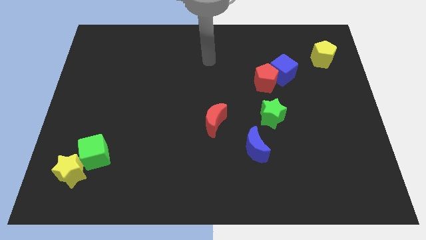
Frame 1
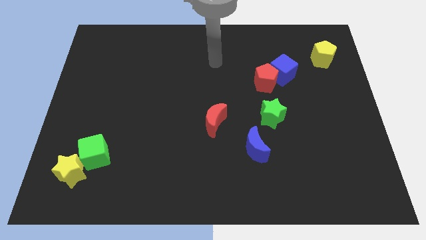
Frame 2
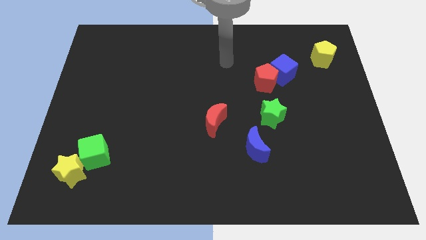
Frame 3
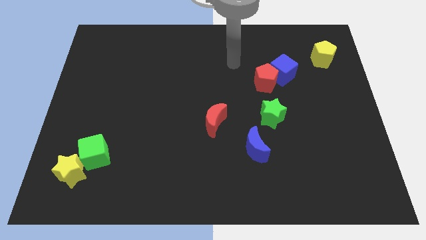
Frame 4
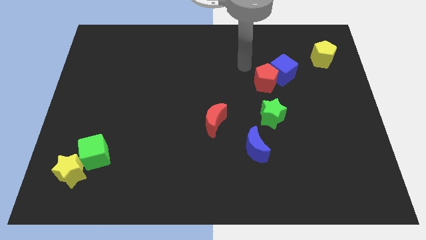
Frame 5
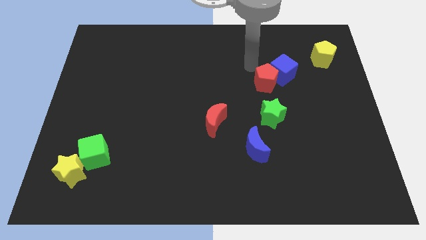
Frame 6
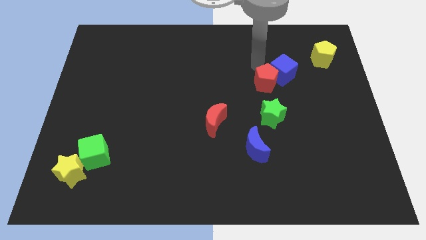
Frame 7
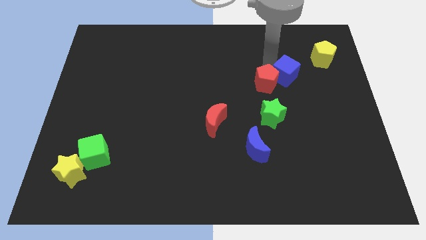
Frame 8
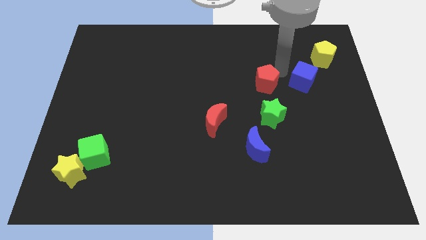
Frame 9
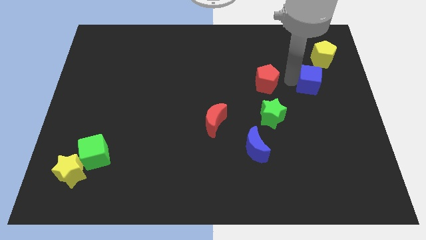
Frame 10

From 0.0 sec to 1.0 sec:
pull the red pentagon apart from the blue cube

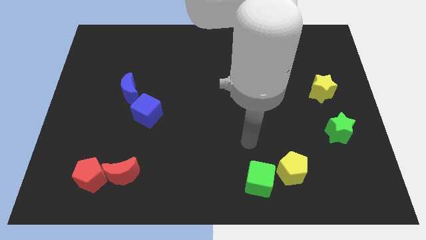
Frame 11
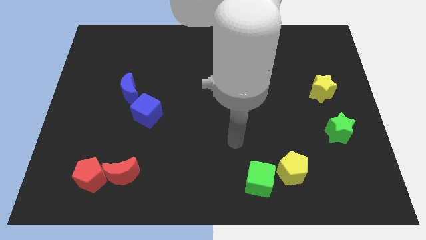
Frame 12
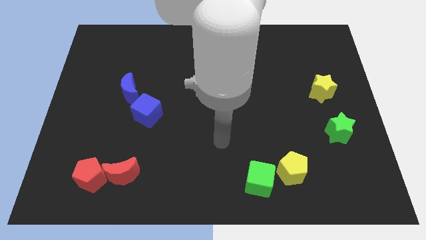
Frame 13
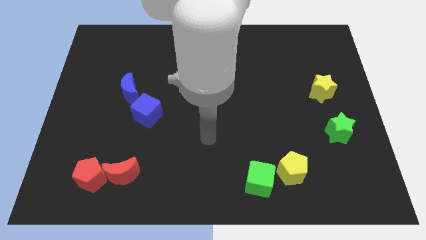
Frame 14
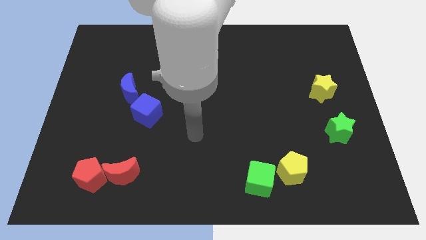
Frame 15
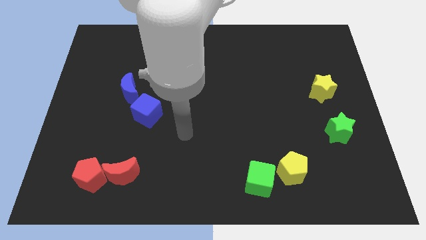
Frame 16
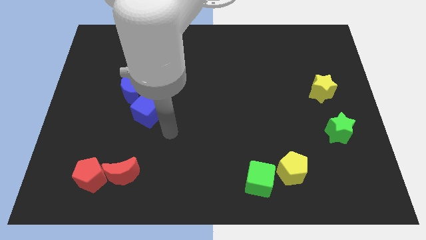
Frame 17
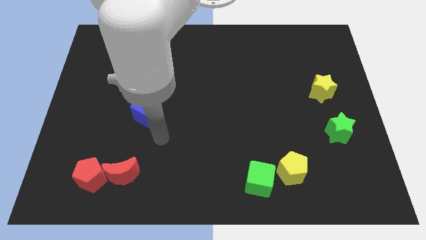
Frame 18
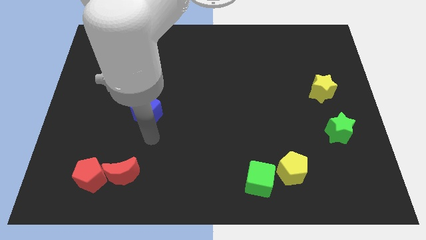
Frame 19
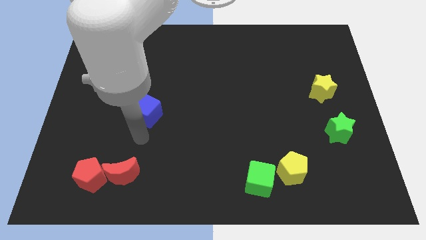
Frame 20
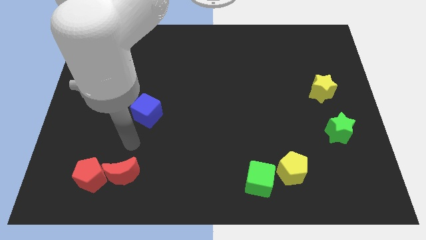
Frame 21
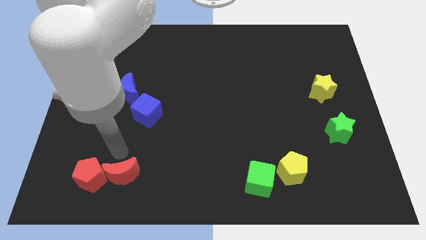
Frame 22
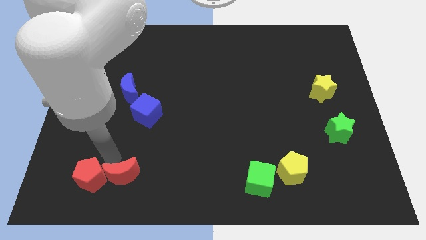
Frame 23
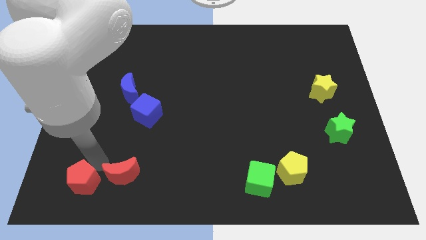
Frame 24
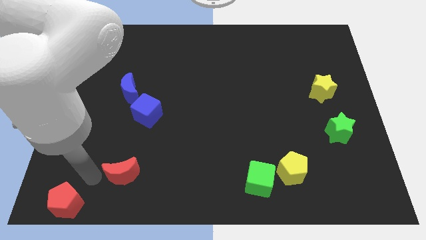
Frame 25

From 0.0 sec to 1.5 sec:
pull the red moon apart from the red pentagon

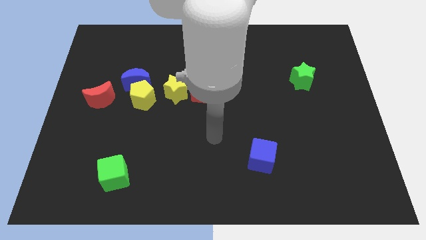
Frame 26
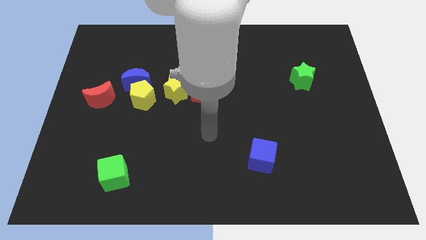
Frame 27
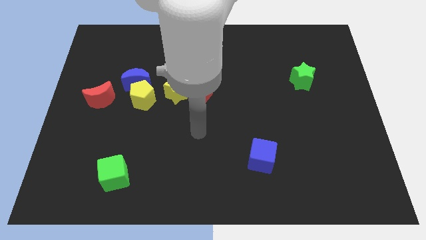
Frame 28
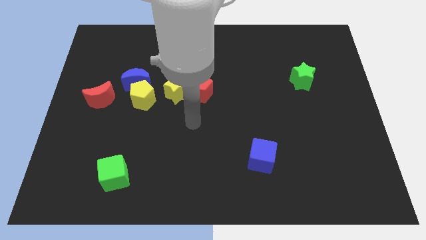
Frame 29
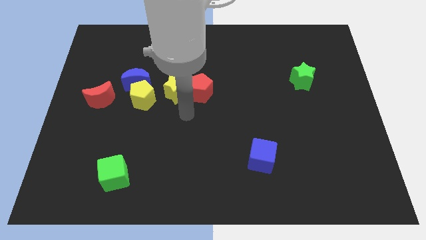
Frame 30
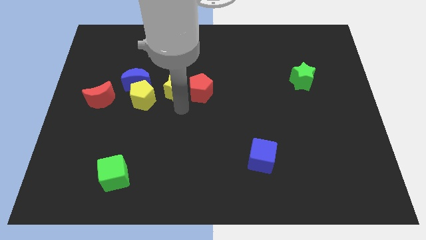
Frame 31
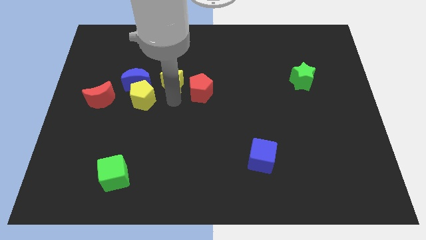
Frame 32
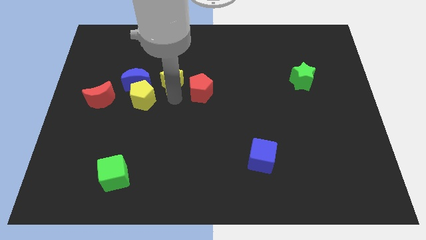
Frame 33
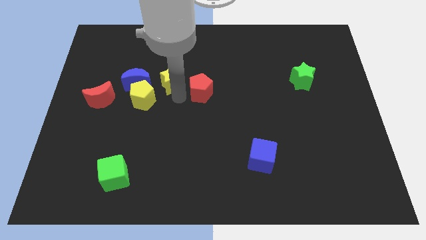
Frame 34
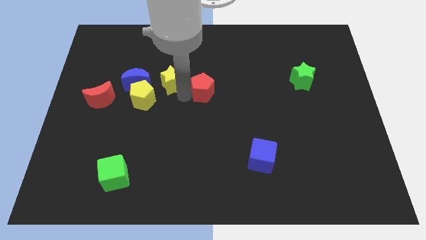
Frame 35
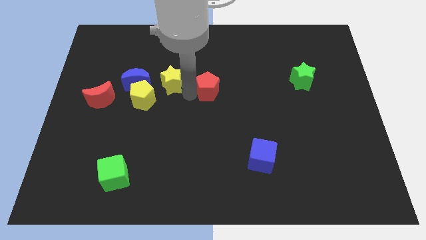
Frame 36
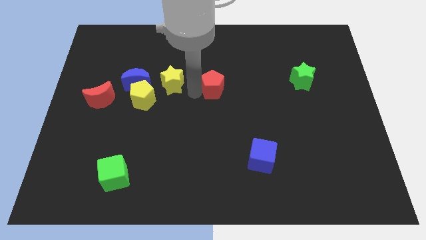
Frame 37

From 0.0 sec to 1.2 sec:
pull the red pentagon apart from the yellow star

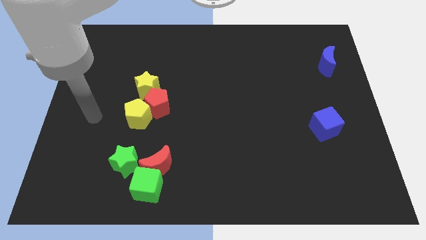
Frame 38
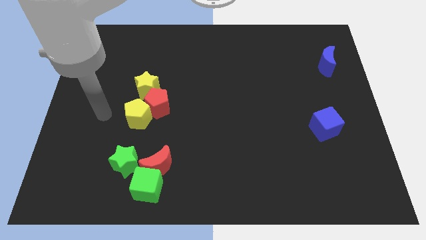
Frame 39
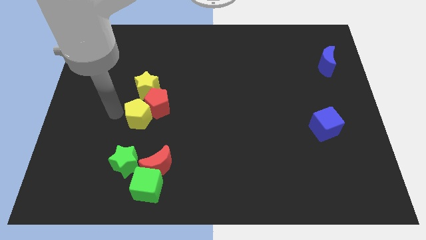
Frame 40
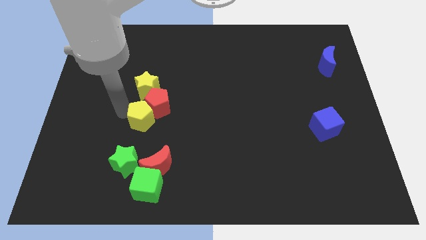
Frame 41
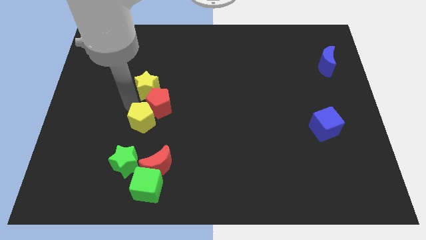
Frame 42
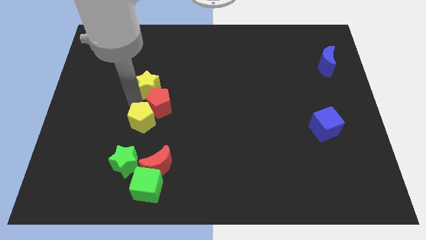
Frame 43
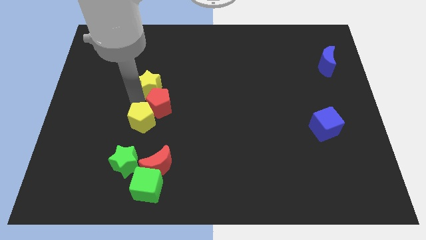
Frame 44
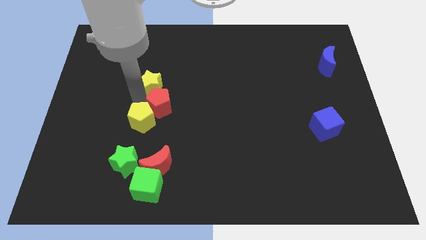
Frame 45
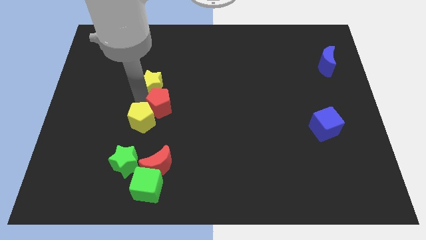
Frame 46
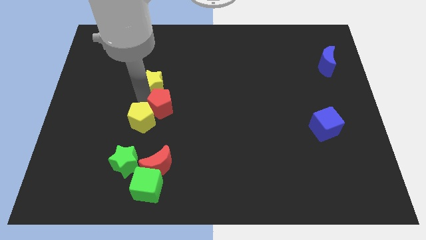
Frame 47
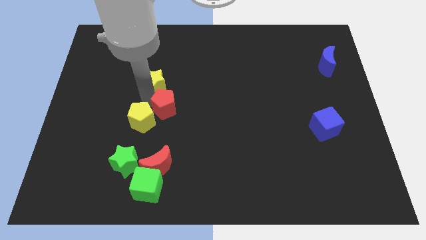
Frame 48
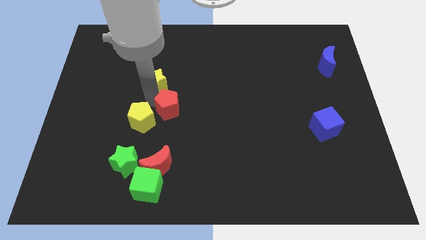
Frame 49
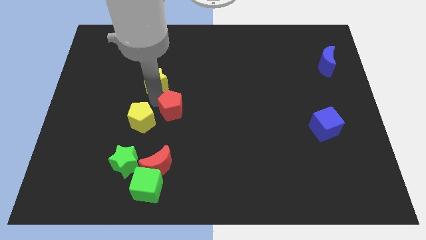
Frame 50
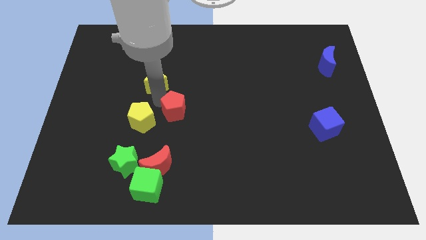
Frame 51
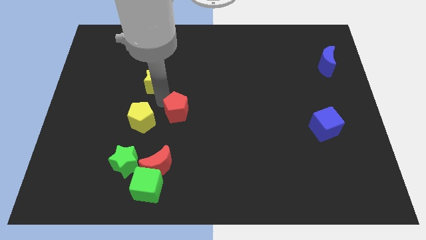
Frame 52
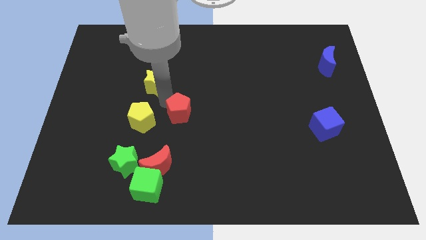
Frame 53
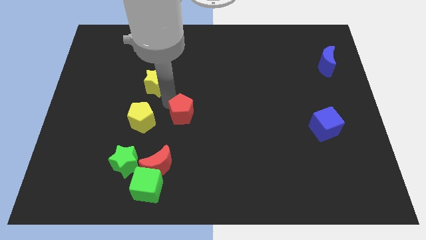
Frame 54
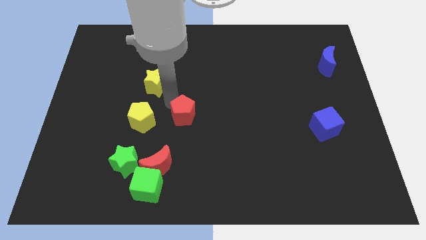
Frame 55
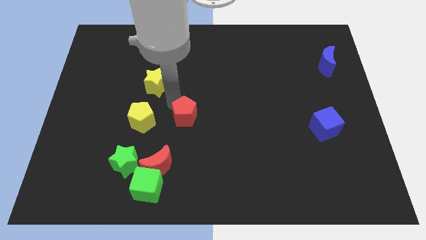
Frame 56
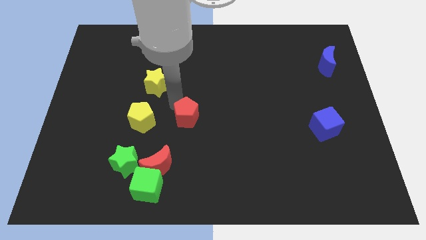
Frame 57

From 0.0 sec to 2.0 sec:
separate the red pentagon from the yellow pentagon and yellow star

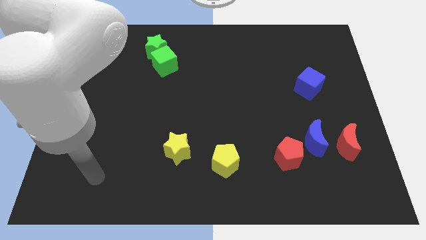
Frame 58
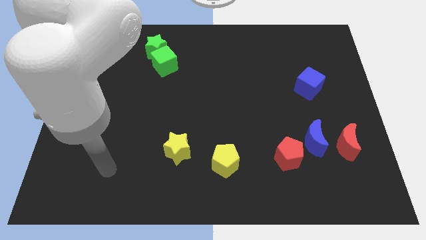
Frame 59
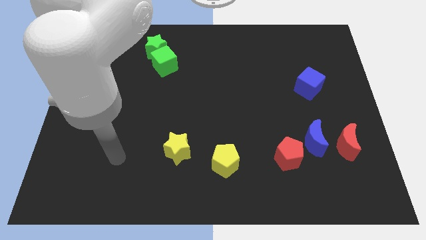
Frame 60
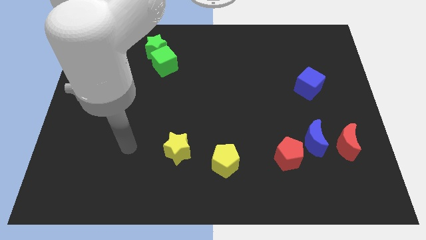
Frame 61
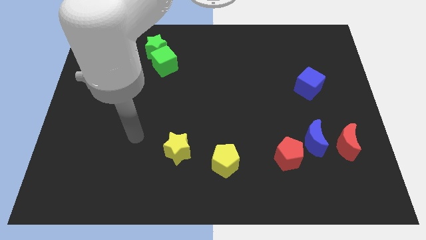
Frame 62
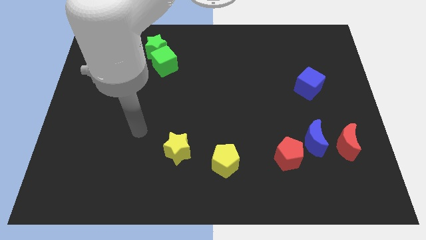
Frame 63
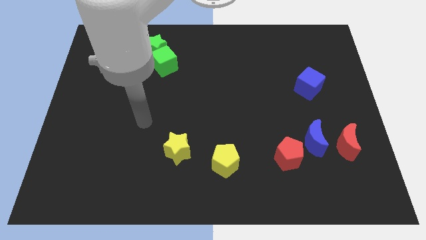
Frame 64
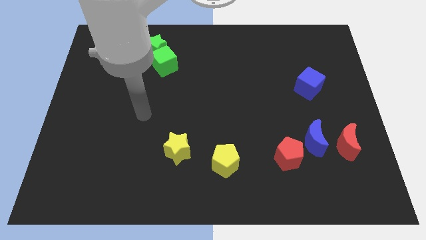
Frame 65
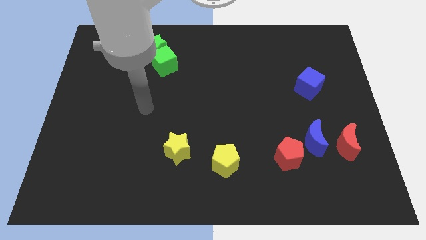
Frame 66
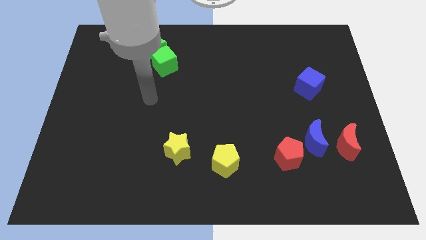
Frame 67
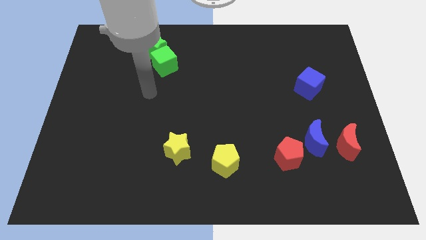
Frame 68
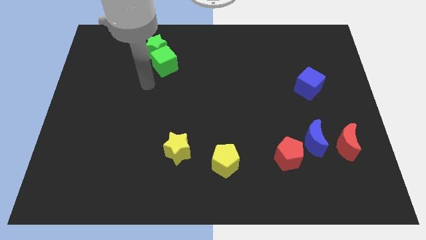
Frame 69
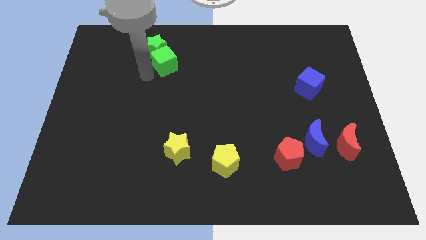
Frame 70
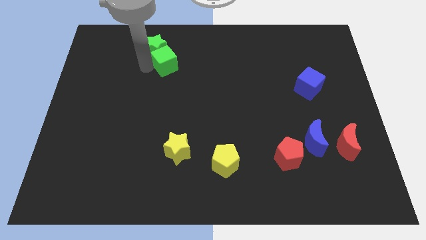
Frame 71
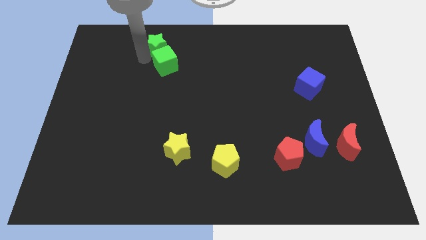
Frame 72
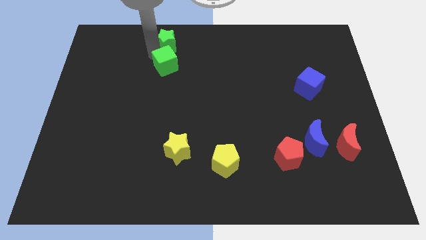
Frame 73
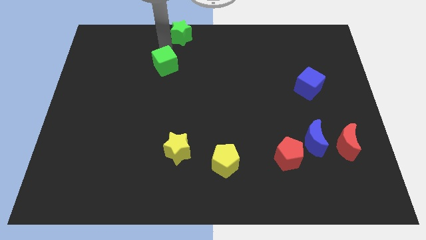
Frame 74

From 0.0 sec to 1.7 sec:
pull the green cube apart from the green star

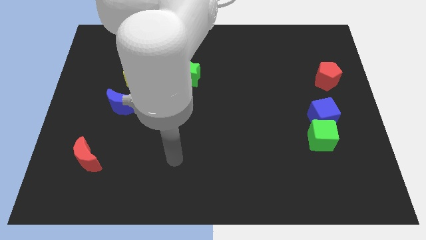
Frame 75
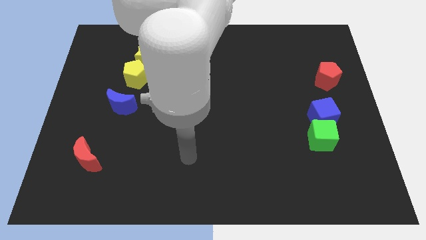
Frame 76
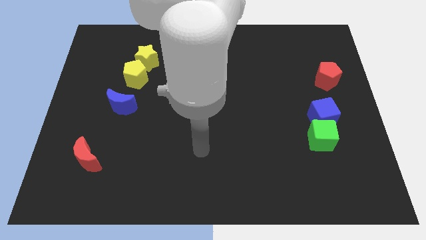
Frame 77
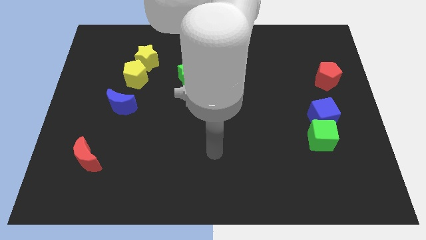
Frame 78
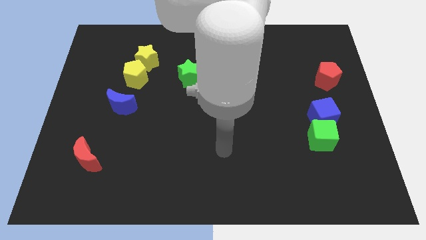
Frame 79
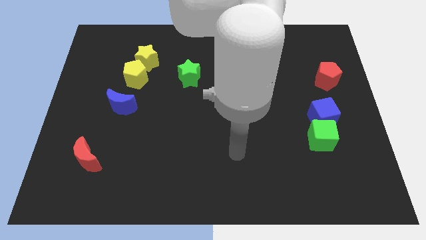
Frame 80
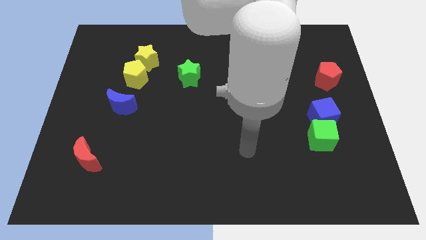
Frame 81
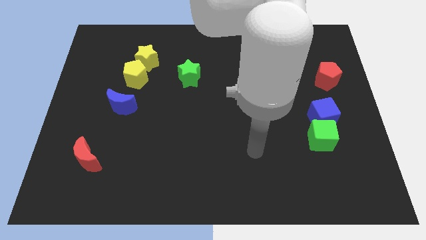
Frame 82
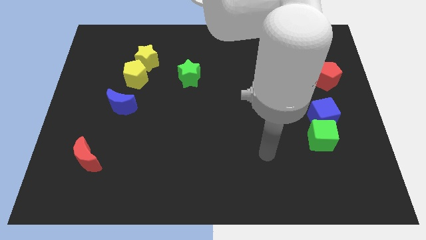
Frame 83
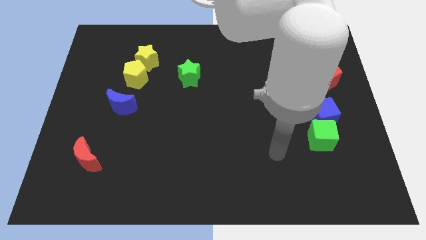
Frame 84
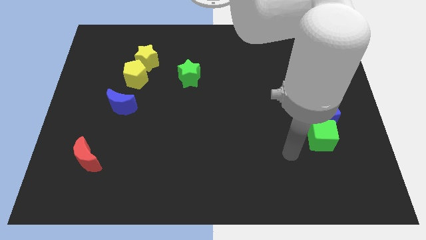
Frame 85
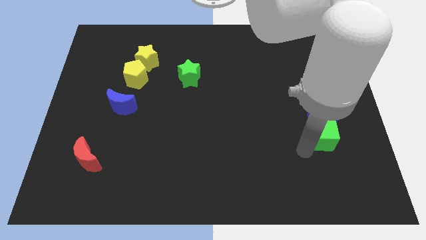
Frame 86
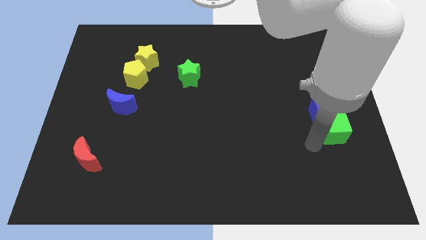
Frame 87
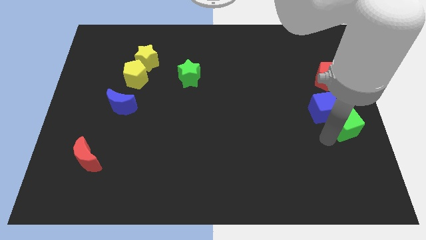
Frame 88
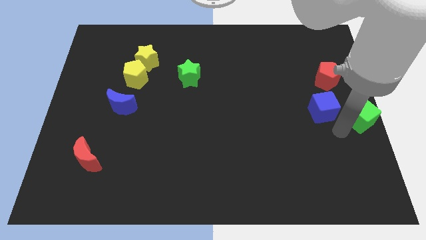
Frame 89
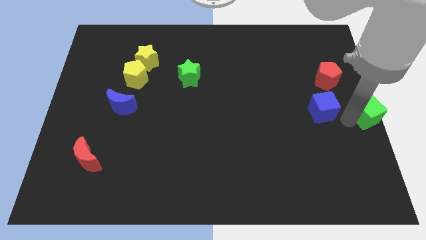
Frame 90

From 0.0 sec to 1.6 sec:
separate the blue cube from the green cube

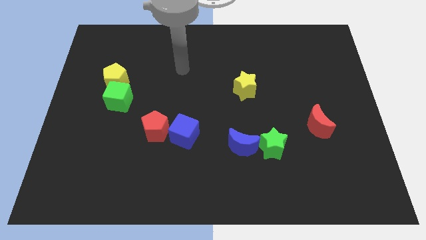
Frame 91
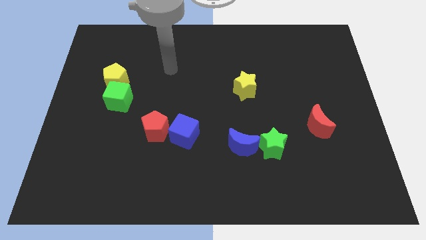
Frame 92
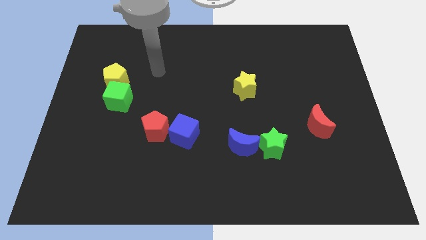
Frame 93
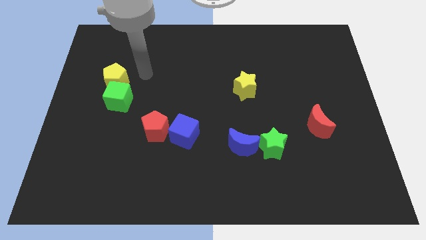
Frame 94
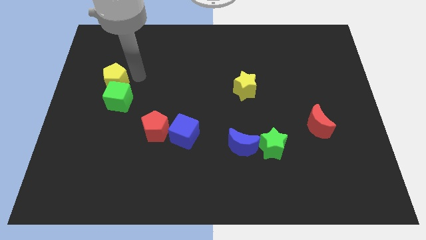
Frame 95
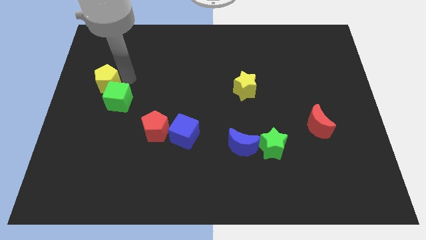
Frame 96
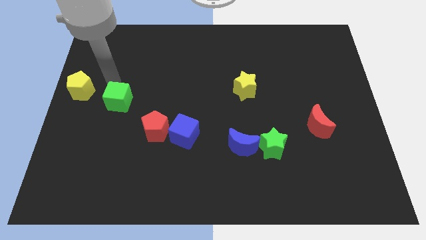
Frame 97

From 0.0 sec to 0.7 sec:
move the green cube away from the yellow pentagon
